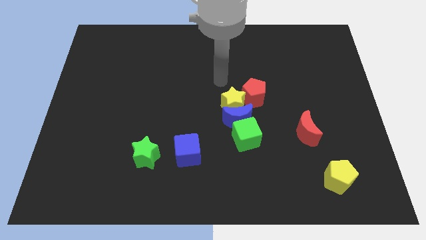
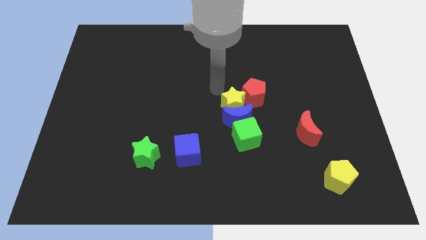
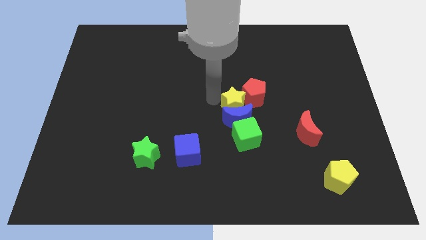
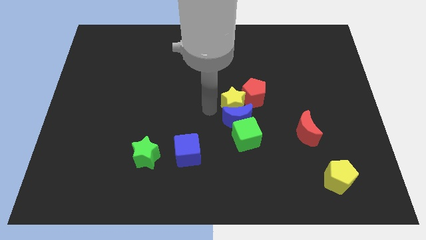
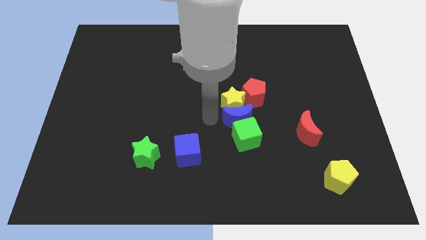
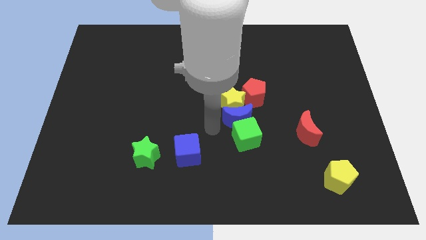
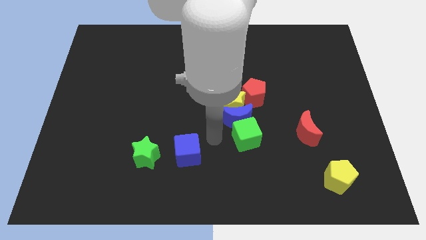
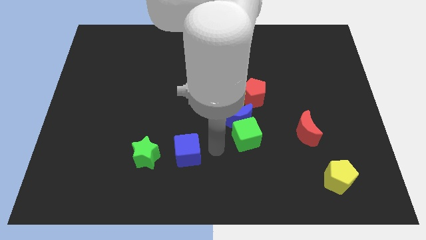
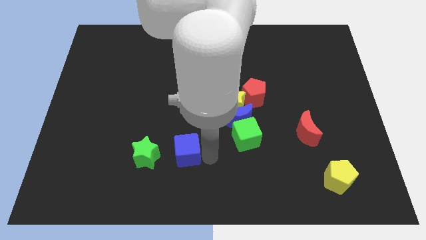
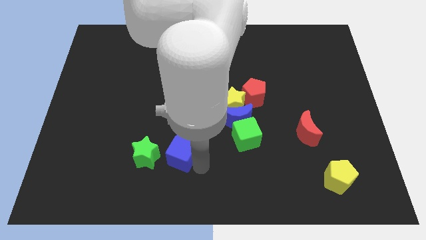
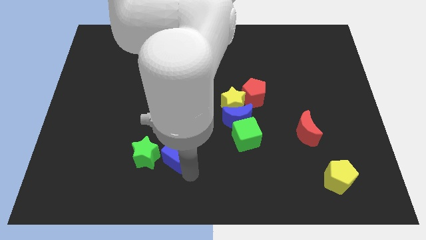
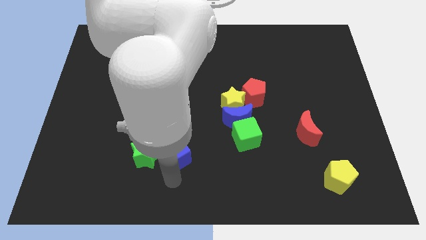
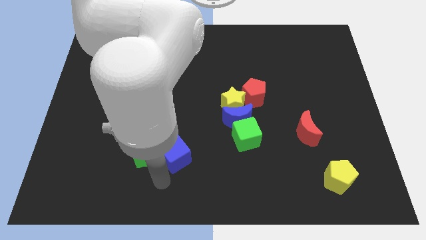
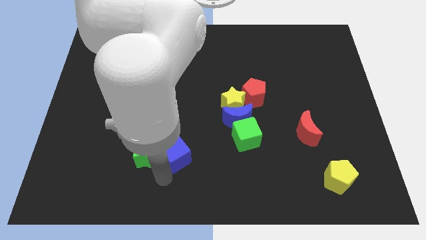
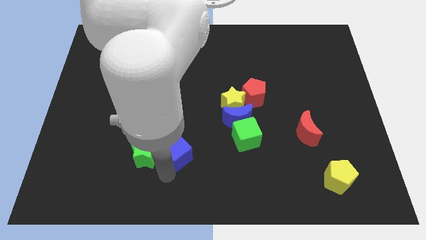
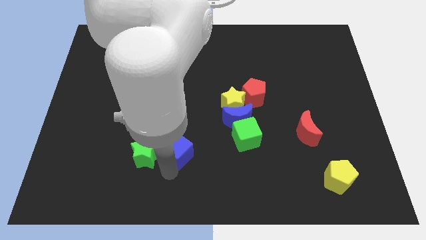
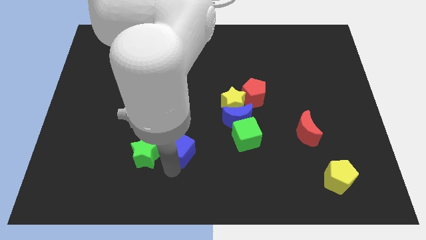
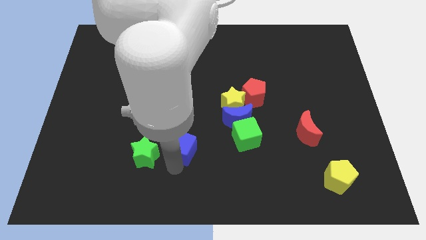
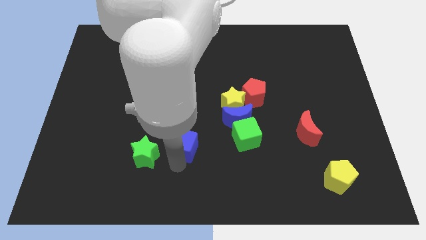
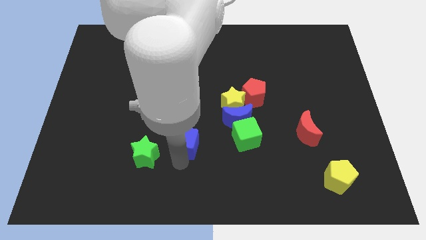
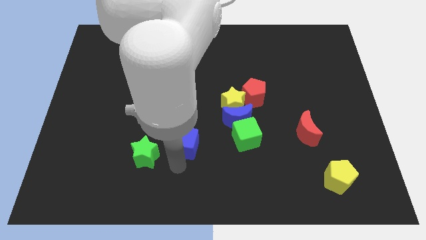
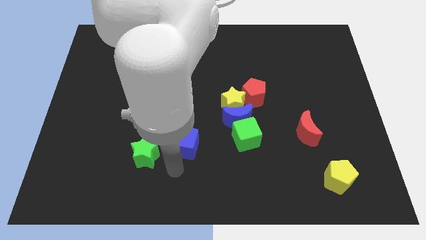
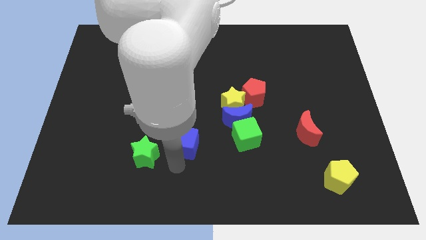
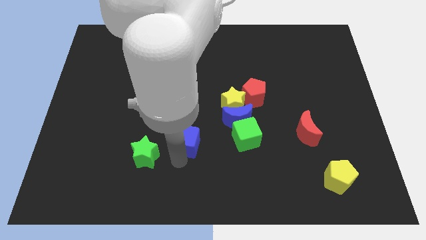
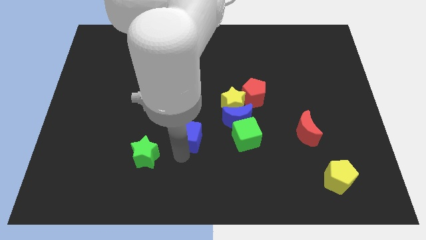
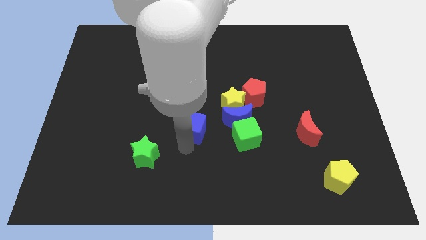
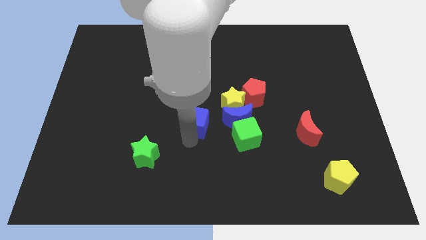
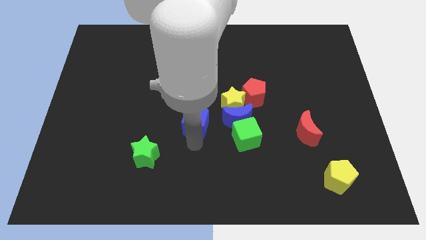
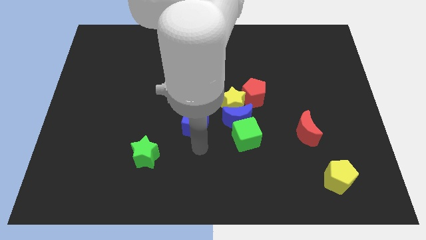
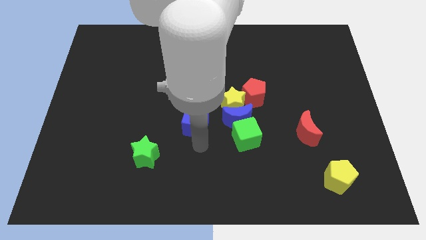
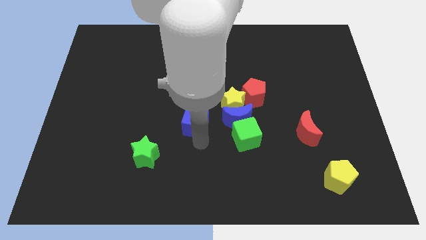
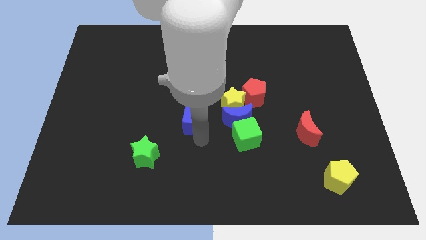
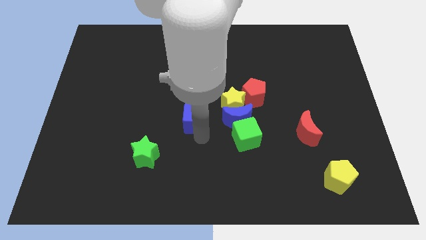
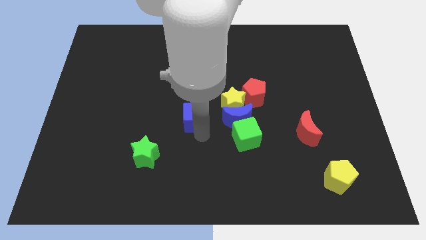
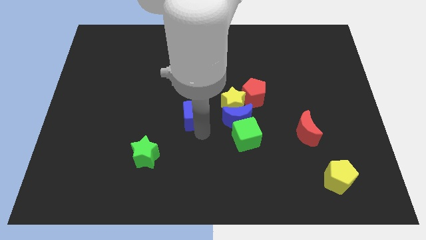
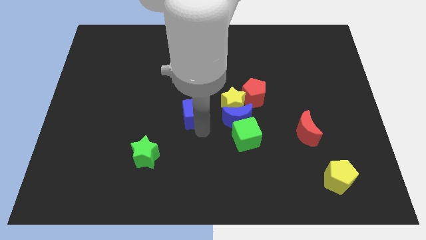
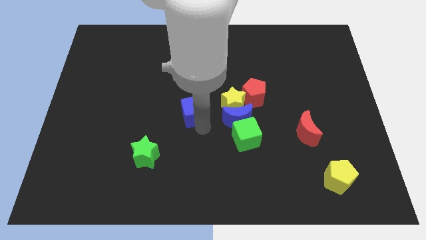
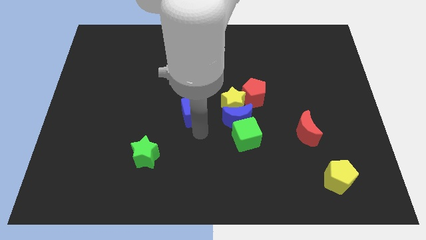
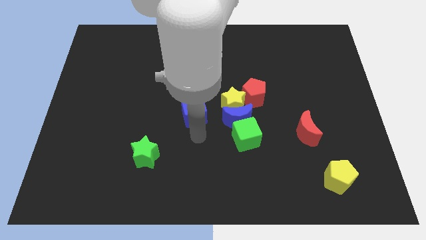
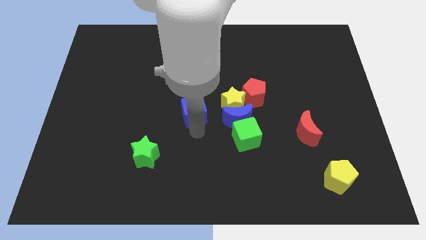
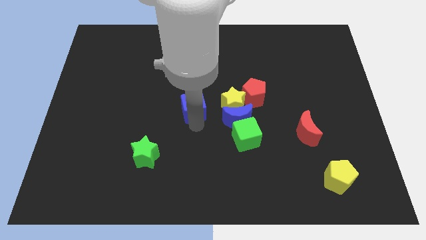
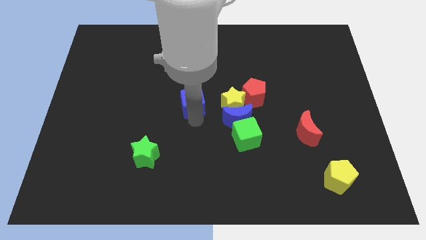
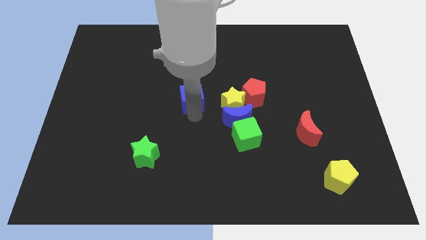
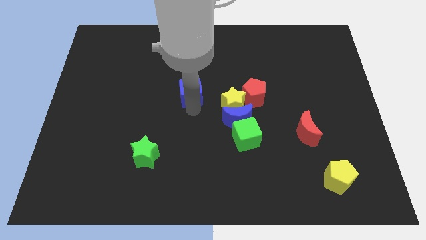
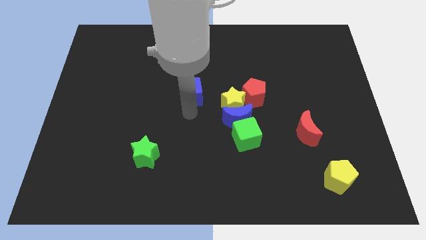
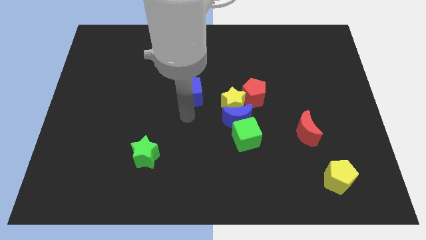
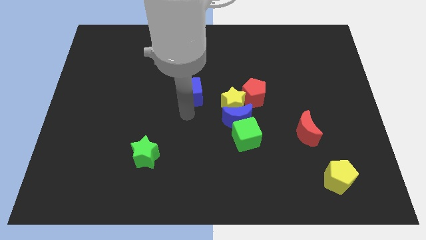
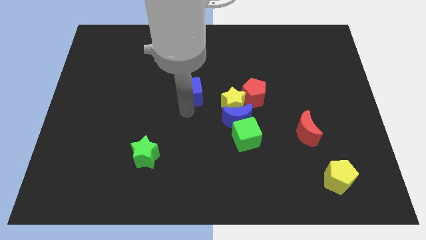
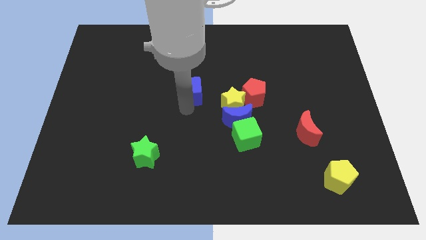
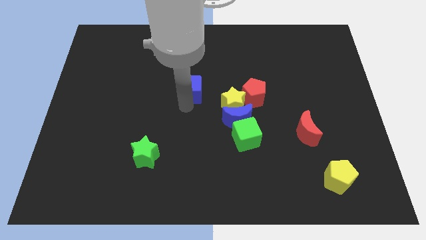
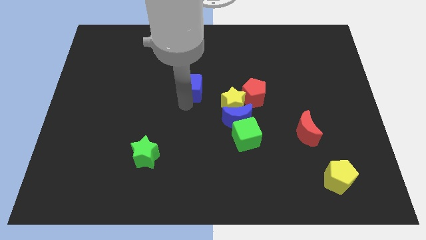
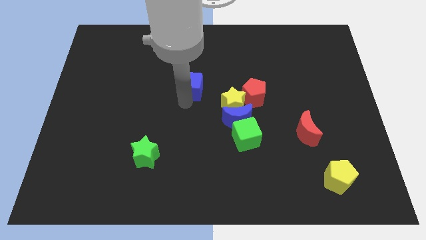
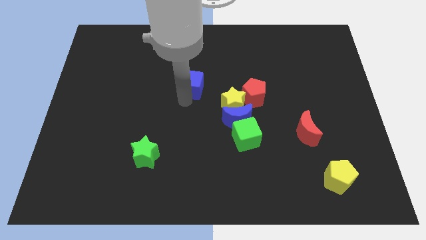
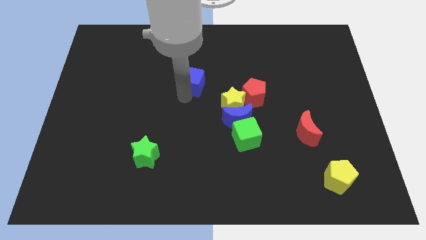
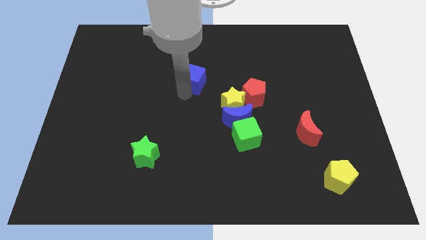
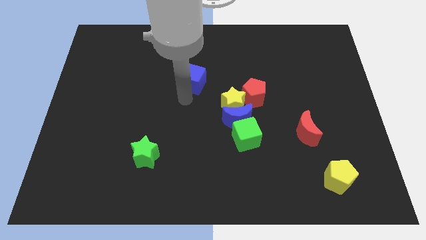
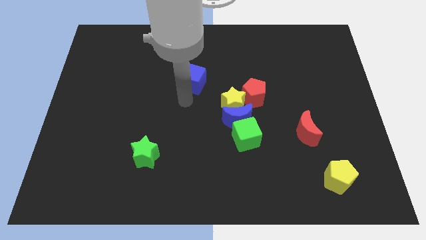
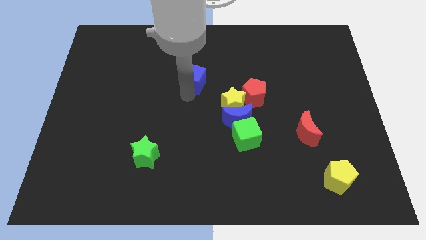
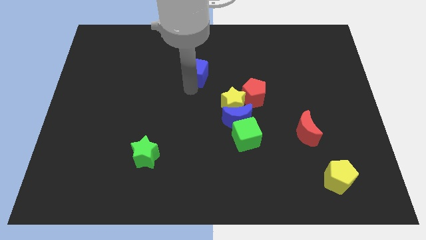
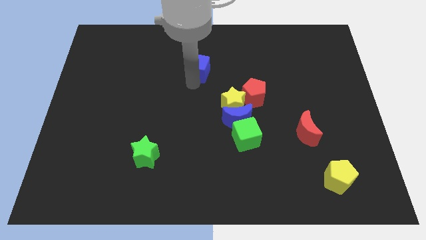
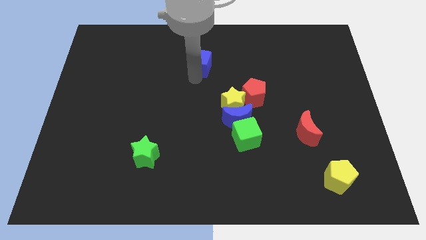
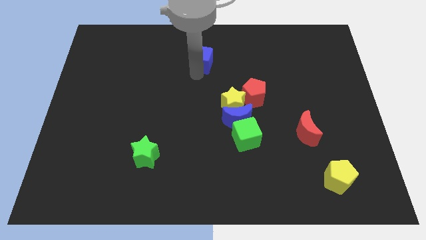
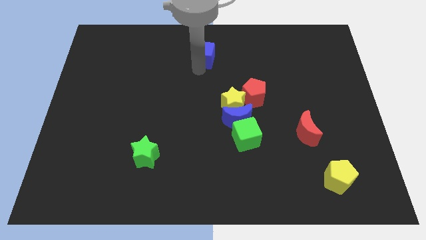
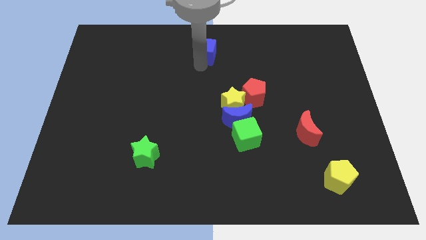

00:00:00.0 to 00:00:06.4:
slide the blue cube to the top

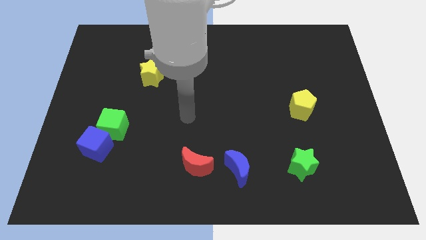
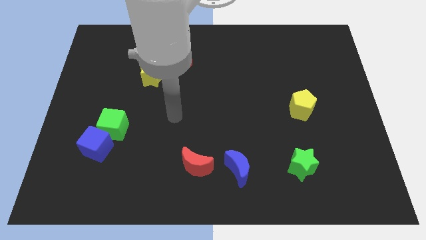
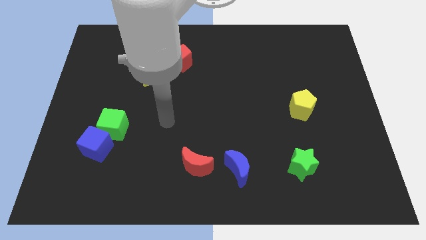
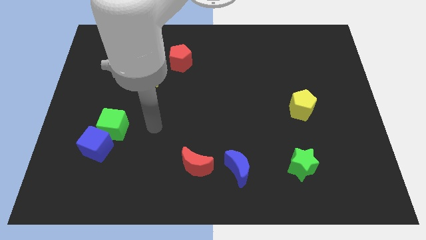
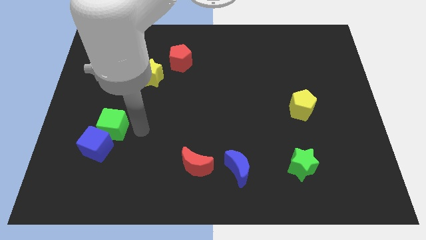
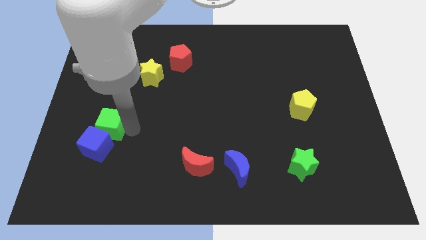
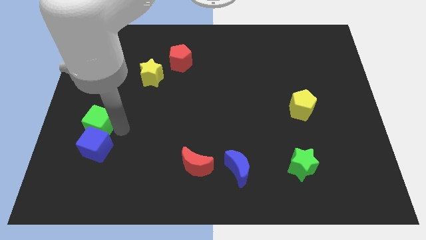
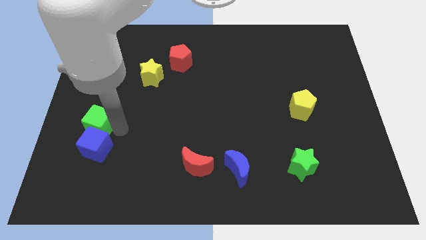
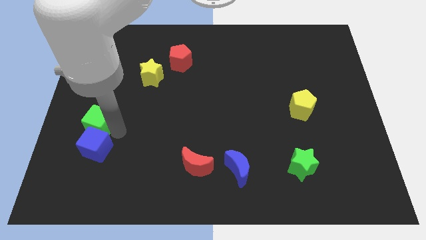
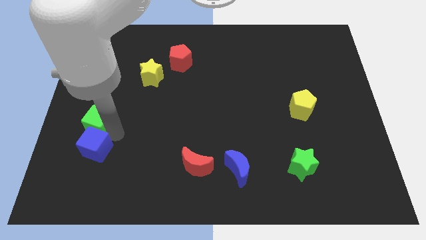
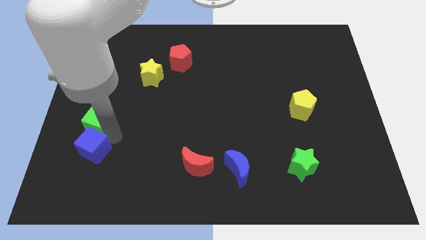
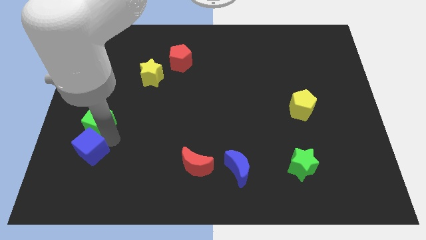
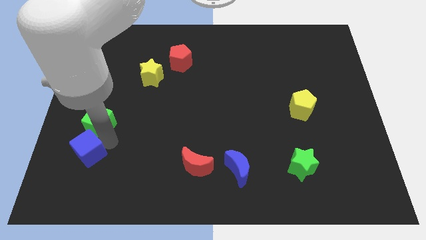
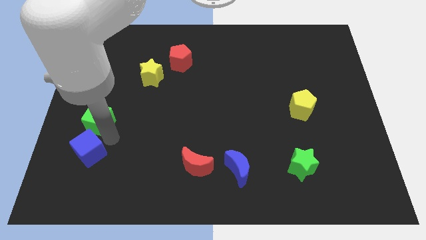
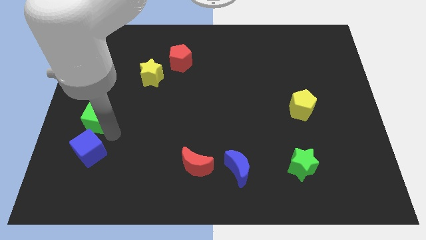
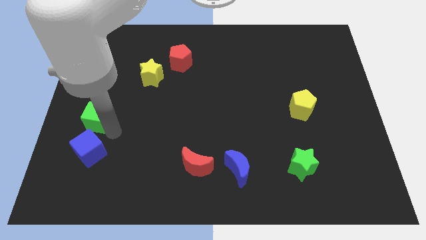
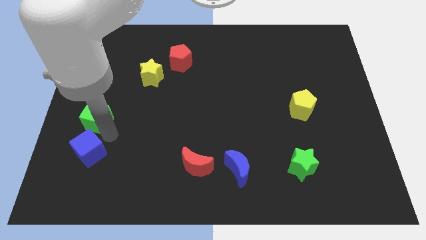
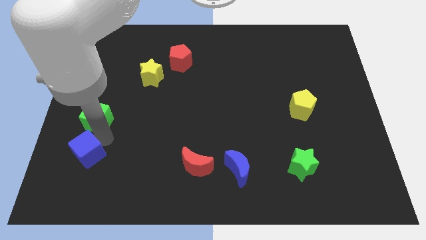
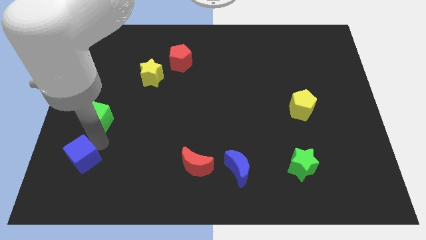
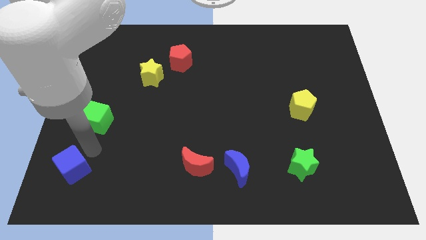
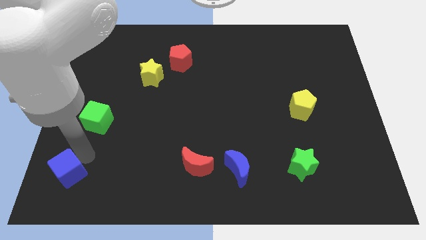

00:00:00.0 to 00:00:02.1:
move the blue cube to the bottom left of the board
